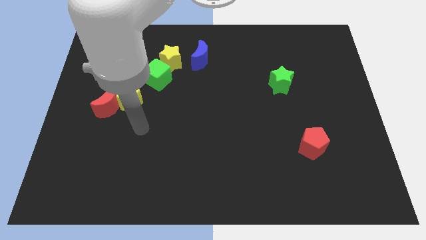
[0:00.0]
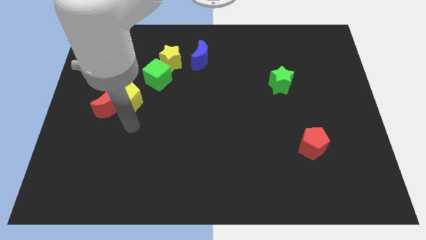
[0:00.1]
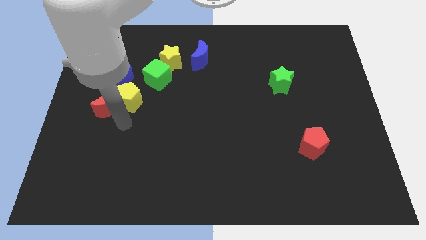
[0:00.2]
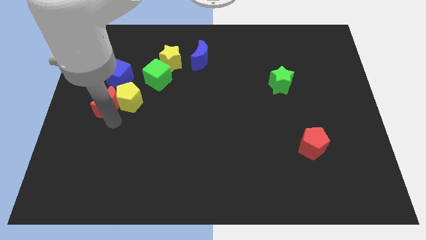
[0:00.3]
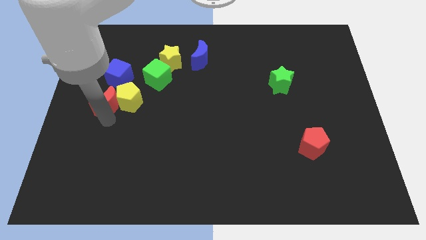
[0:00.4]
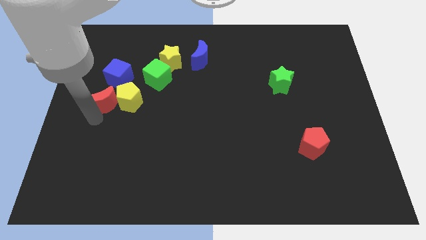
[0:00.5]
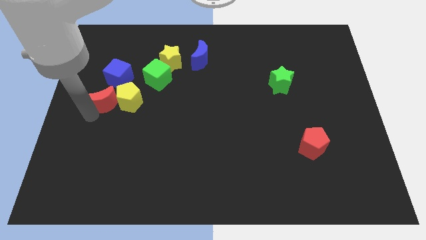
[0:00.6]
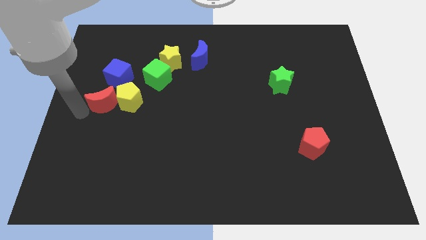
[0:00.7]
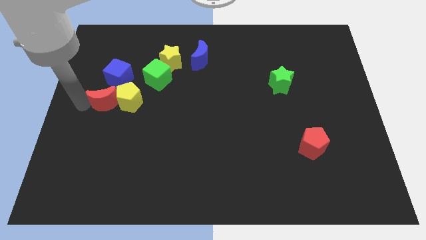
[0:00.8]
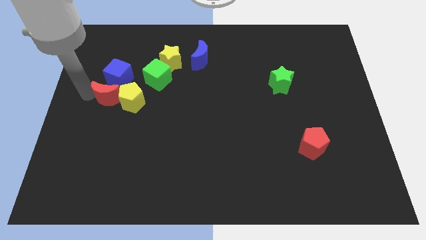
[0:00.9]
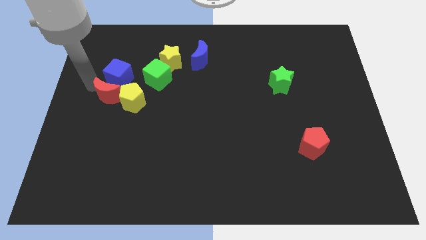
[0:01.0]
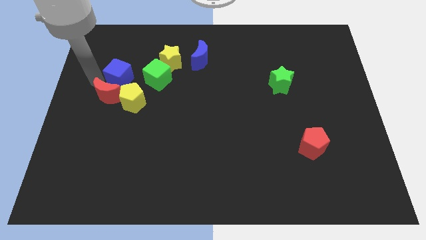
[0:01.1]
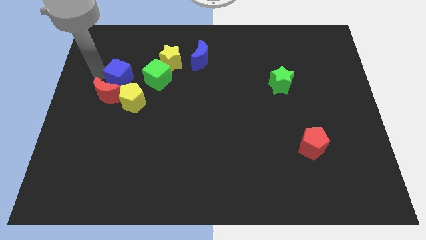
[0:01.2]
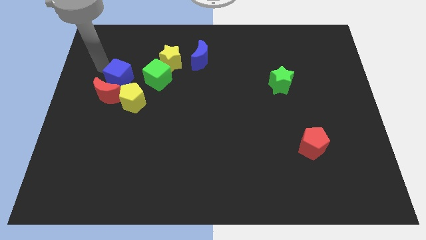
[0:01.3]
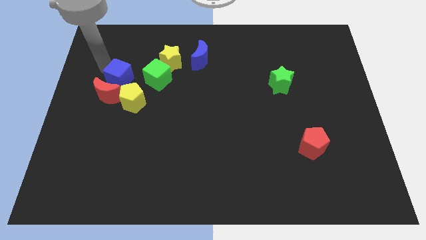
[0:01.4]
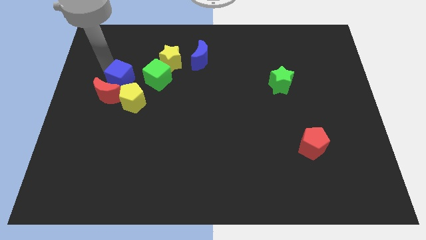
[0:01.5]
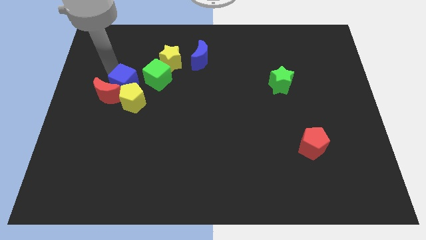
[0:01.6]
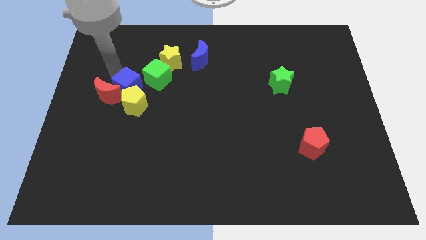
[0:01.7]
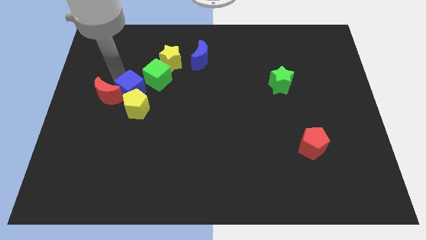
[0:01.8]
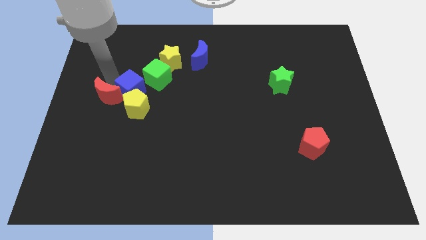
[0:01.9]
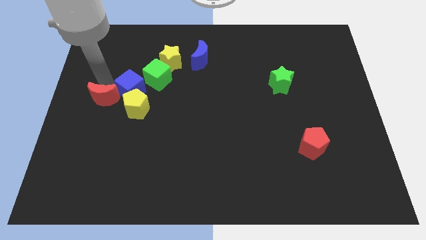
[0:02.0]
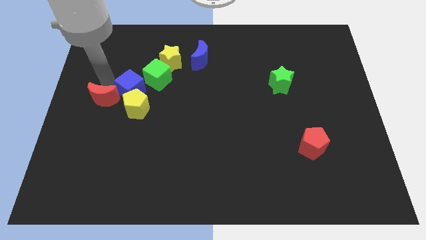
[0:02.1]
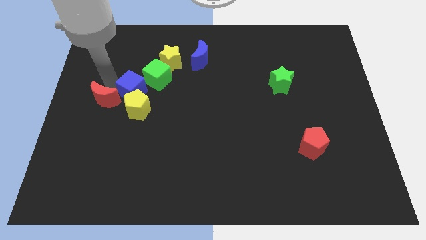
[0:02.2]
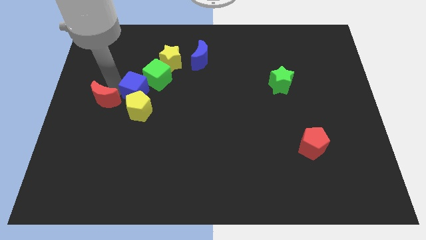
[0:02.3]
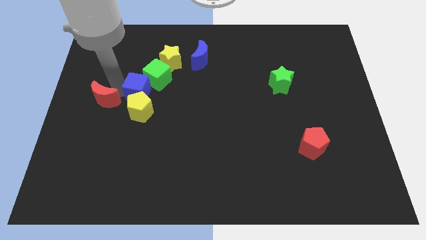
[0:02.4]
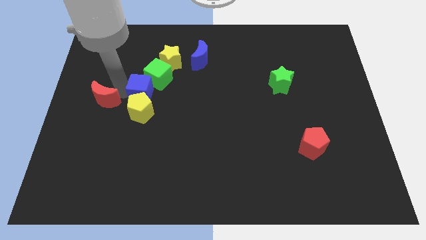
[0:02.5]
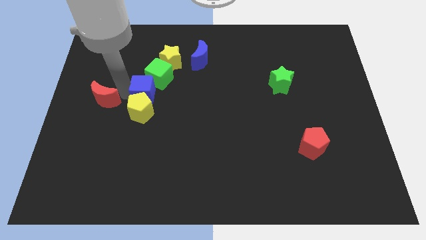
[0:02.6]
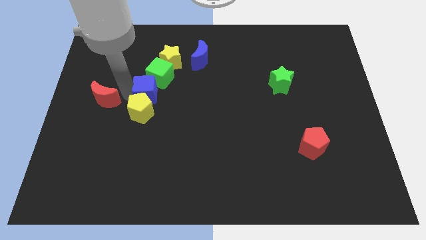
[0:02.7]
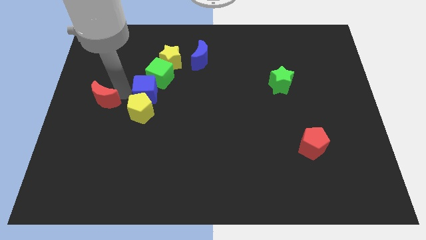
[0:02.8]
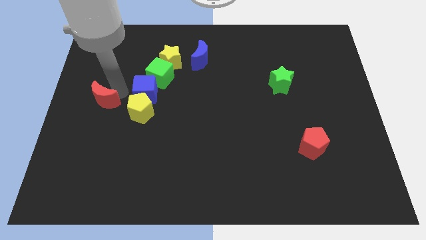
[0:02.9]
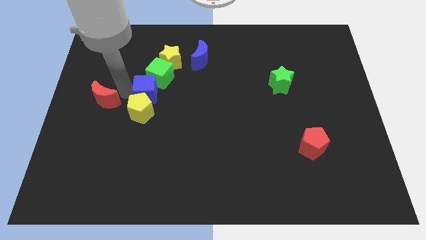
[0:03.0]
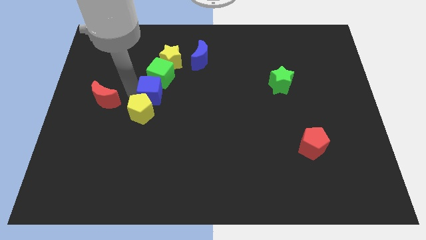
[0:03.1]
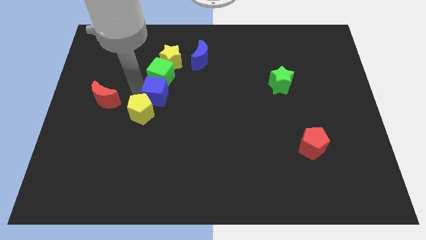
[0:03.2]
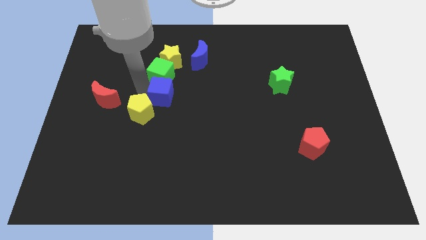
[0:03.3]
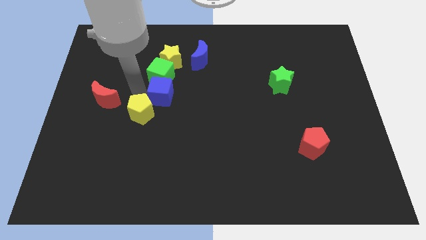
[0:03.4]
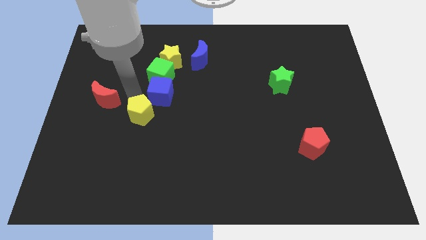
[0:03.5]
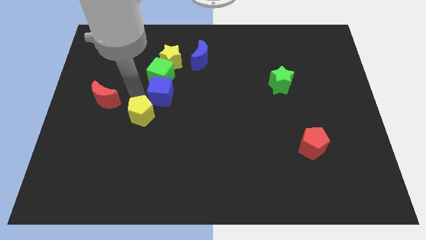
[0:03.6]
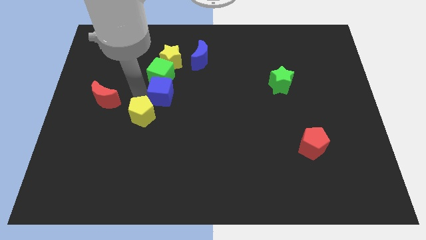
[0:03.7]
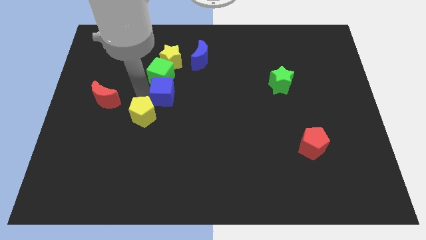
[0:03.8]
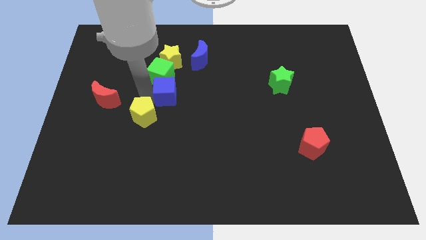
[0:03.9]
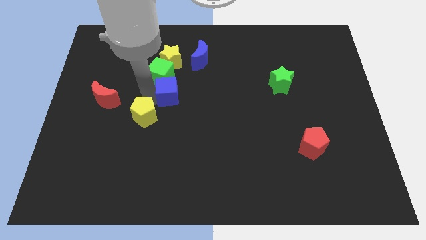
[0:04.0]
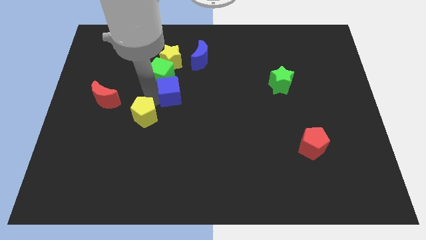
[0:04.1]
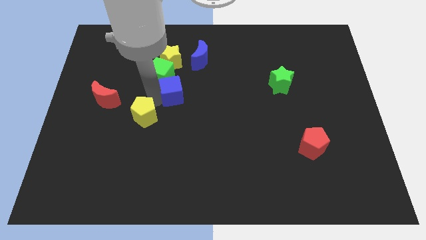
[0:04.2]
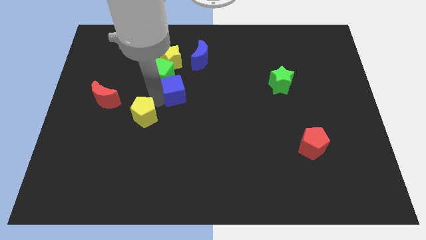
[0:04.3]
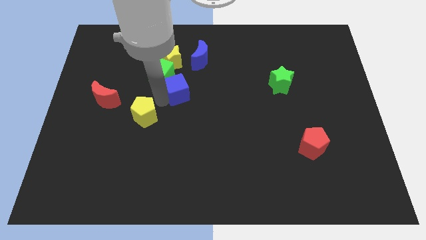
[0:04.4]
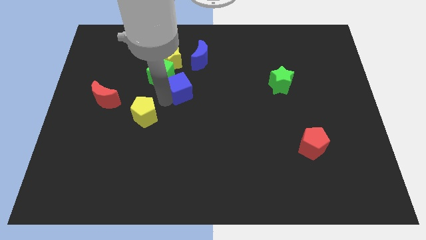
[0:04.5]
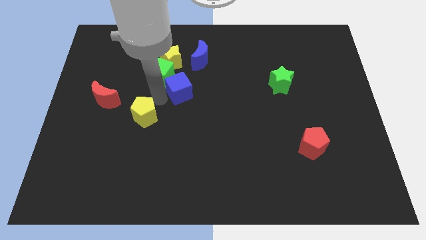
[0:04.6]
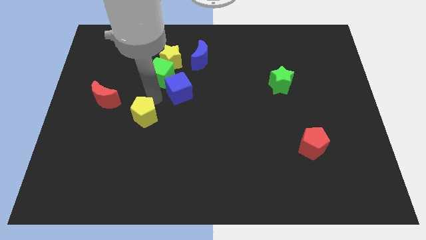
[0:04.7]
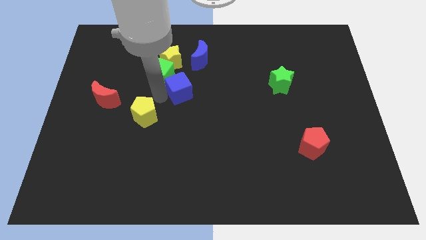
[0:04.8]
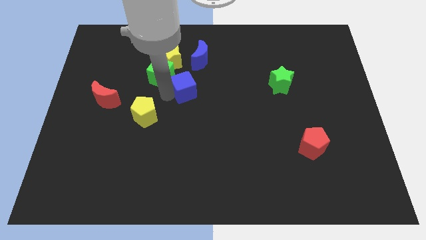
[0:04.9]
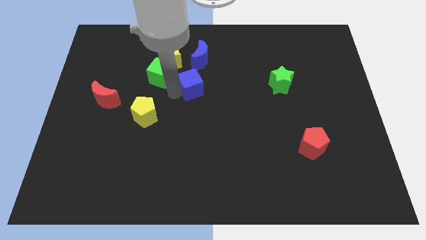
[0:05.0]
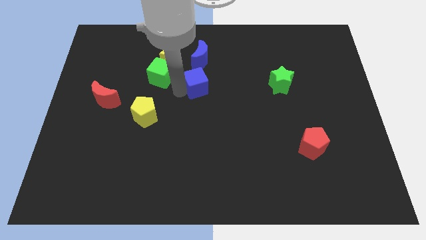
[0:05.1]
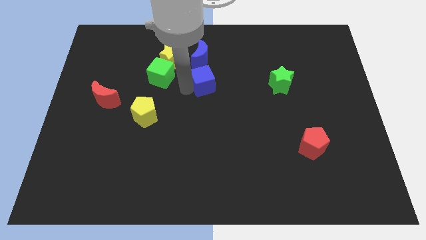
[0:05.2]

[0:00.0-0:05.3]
move the blue cube to the right

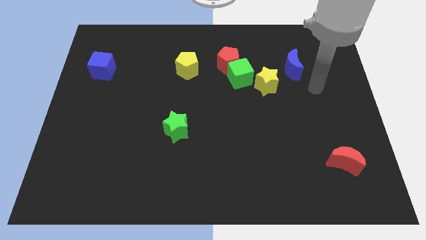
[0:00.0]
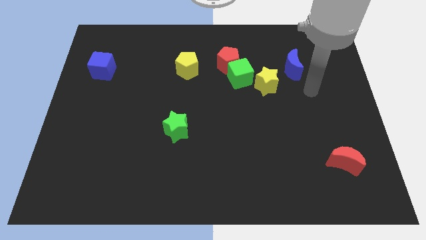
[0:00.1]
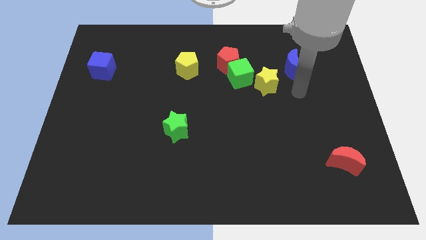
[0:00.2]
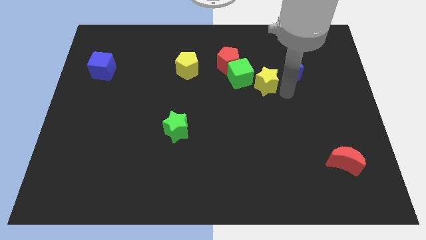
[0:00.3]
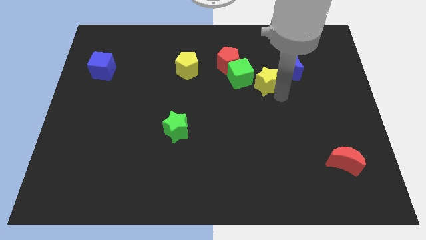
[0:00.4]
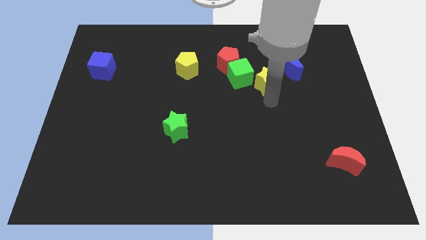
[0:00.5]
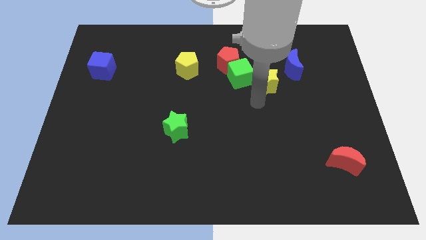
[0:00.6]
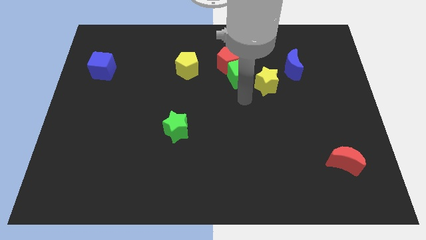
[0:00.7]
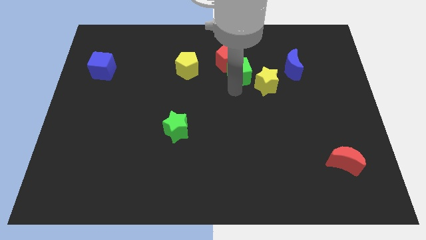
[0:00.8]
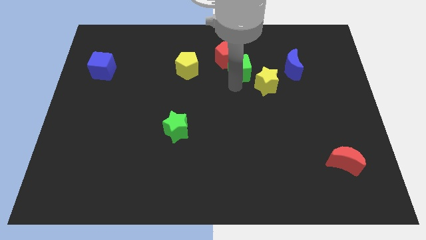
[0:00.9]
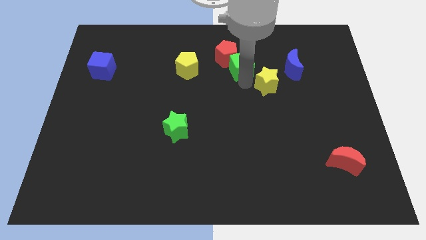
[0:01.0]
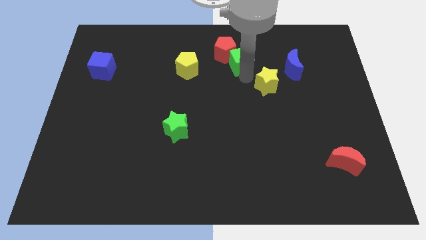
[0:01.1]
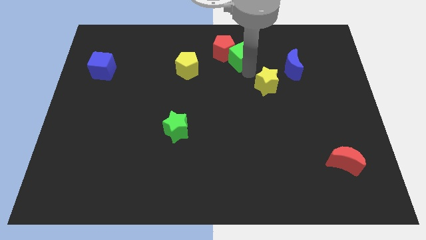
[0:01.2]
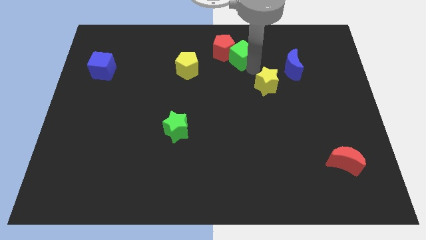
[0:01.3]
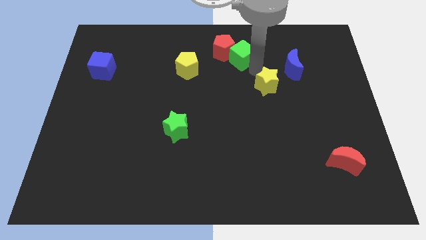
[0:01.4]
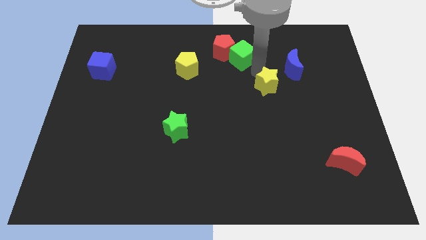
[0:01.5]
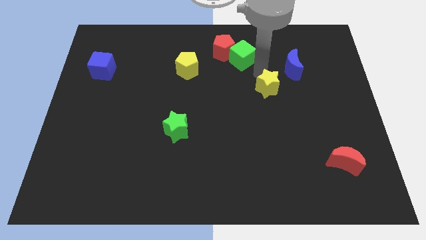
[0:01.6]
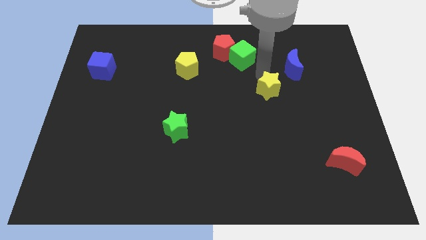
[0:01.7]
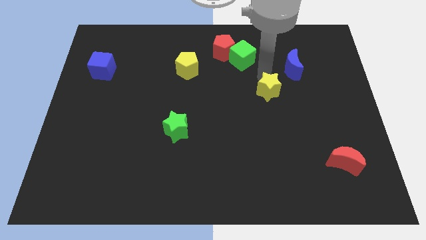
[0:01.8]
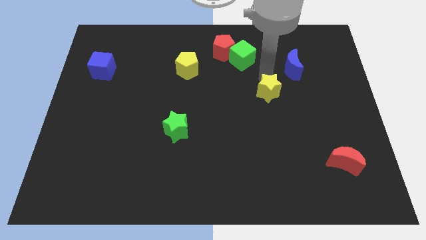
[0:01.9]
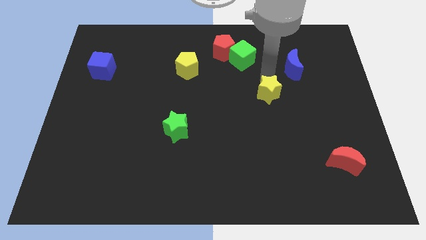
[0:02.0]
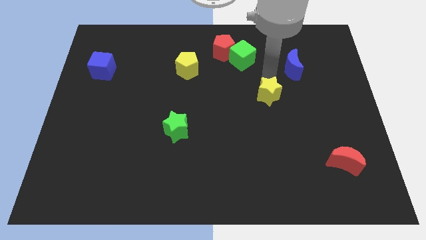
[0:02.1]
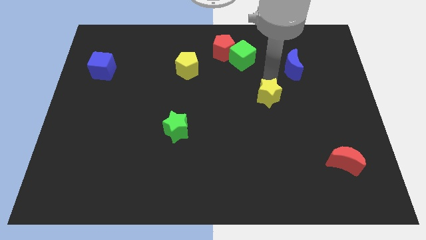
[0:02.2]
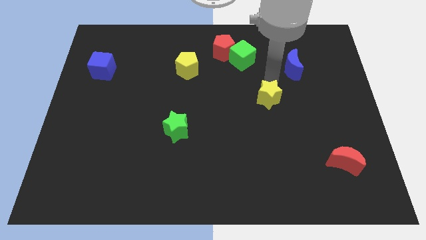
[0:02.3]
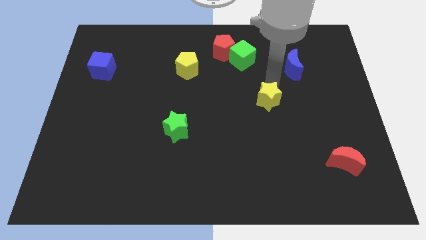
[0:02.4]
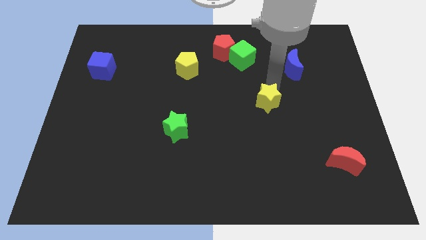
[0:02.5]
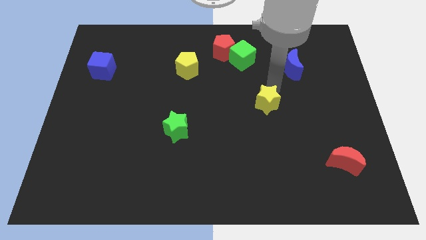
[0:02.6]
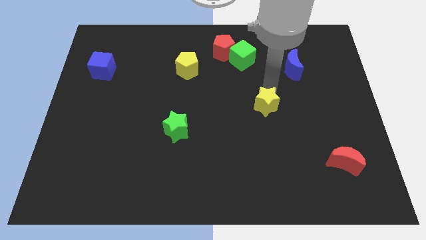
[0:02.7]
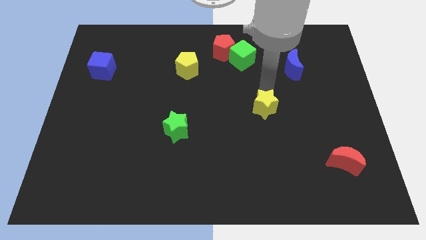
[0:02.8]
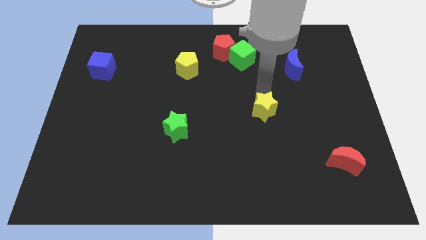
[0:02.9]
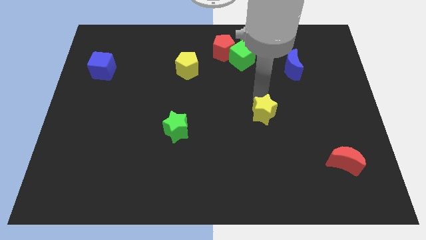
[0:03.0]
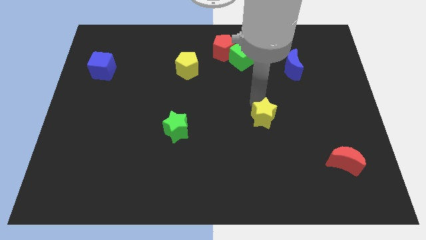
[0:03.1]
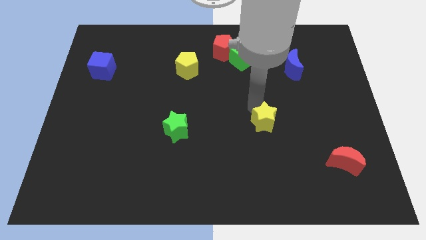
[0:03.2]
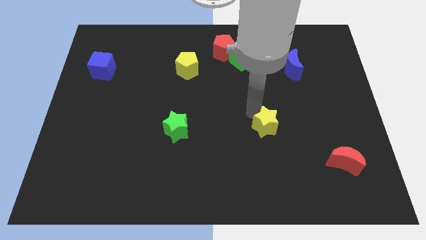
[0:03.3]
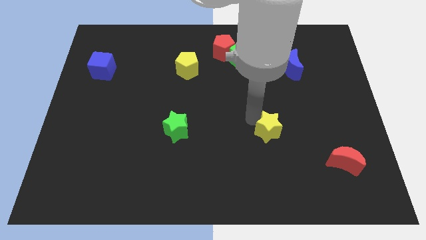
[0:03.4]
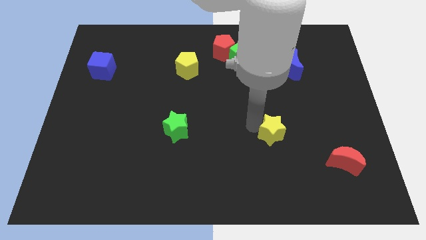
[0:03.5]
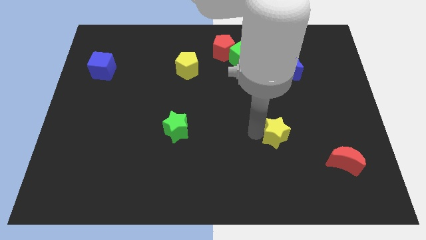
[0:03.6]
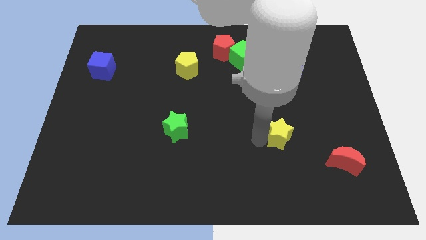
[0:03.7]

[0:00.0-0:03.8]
push the yellow star somewhat down and to the right diagonally
